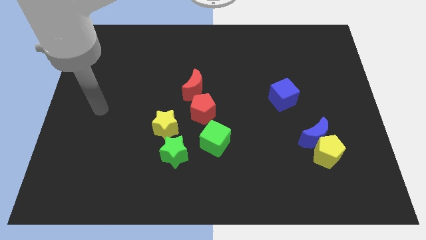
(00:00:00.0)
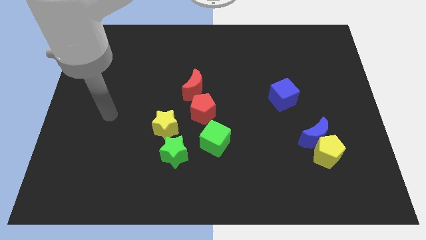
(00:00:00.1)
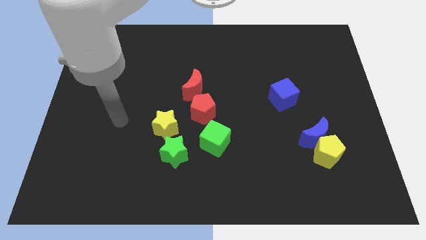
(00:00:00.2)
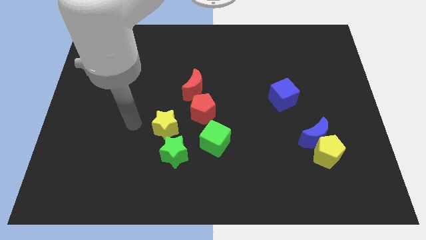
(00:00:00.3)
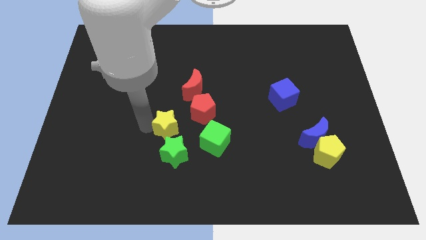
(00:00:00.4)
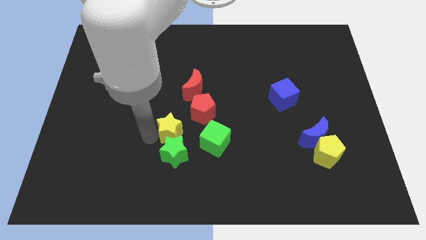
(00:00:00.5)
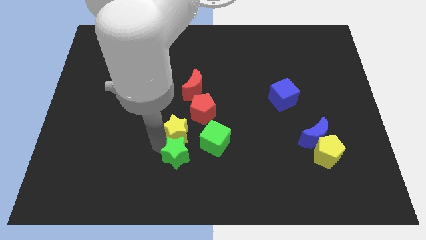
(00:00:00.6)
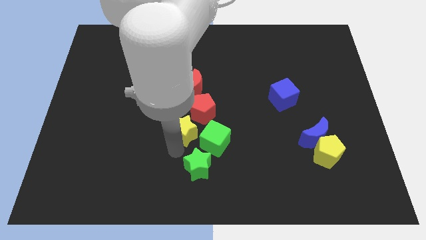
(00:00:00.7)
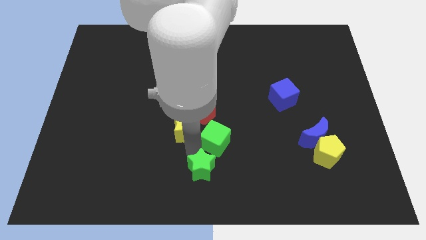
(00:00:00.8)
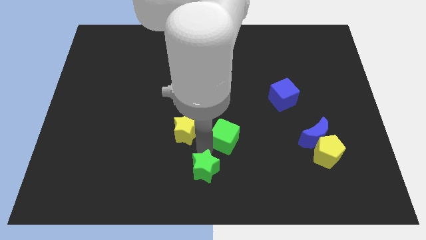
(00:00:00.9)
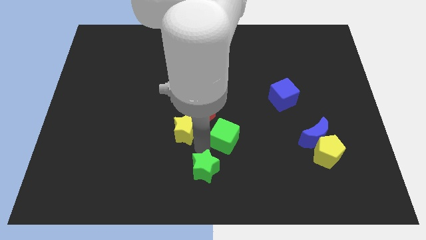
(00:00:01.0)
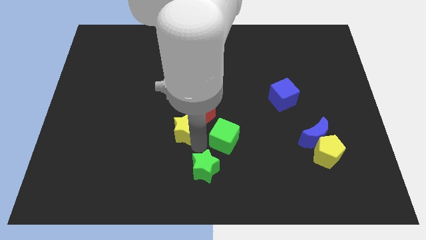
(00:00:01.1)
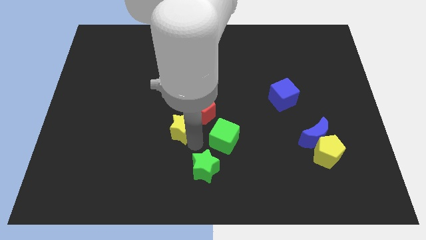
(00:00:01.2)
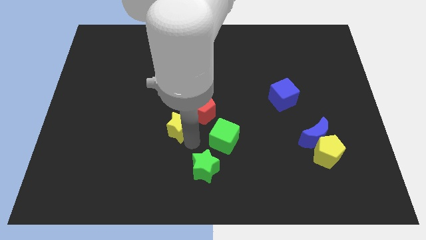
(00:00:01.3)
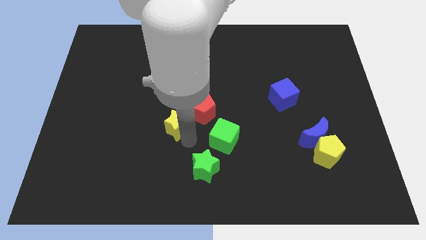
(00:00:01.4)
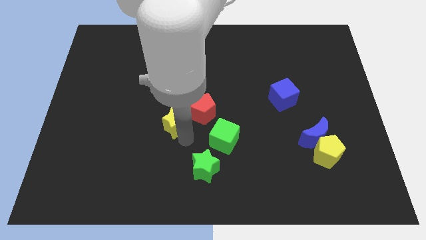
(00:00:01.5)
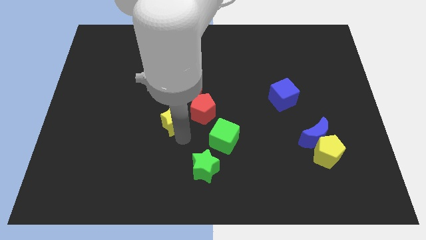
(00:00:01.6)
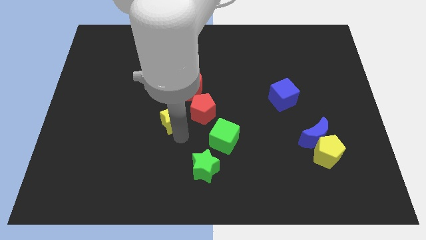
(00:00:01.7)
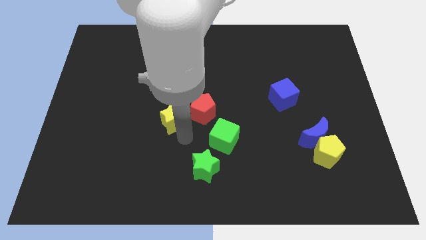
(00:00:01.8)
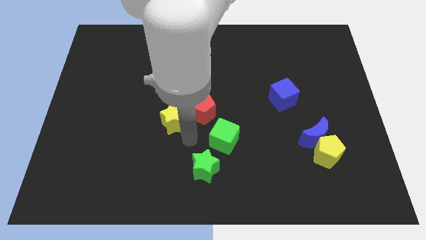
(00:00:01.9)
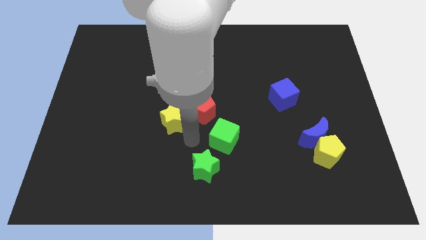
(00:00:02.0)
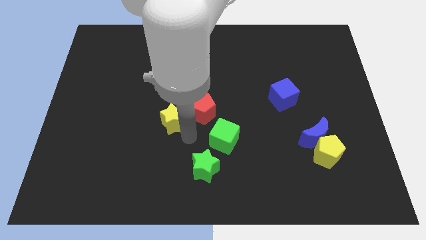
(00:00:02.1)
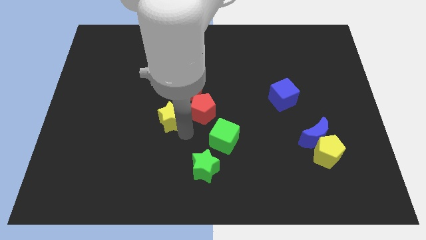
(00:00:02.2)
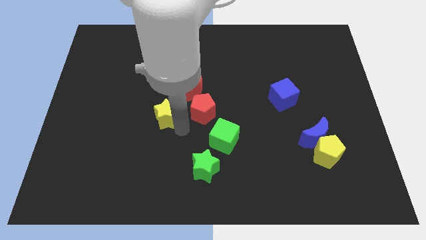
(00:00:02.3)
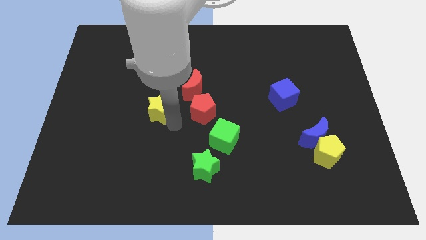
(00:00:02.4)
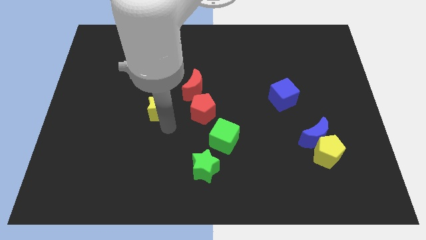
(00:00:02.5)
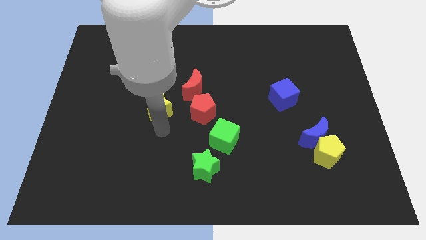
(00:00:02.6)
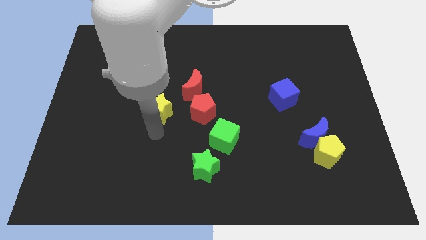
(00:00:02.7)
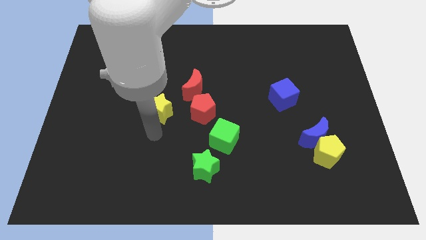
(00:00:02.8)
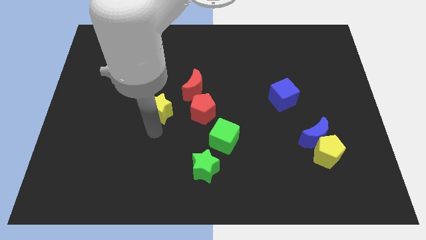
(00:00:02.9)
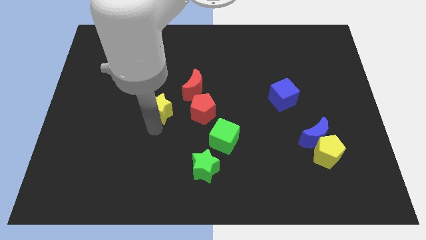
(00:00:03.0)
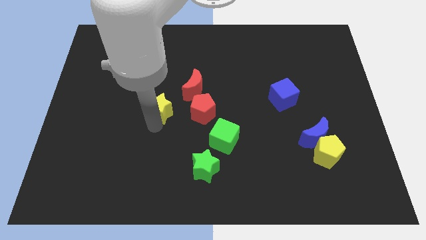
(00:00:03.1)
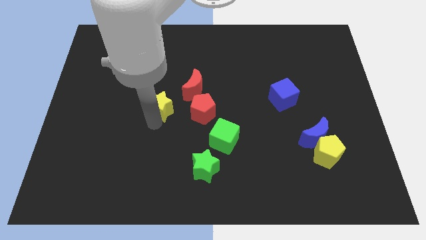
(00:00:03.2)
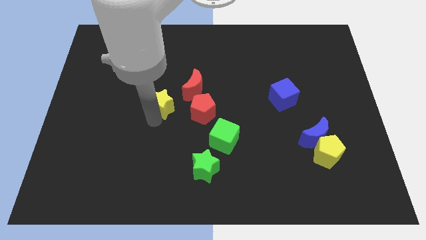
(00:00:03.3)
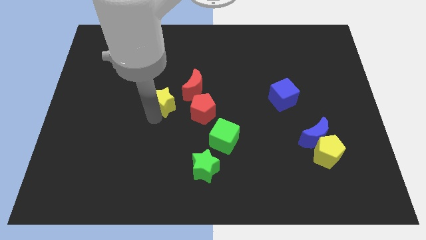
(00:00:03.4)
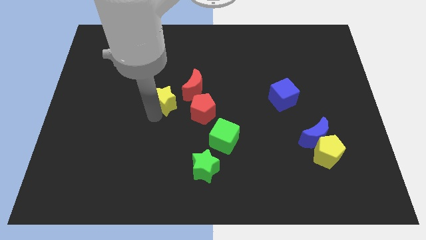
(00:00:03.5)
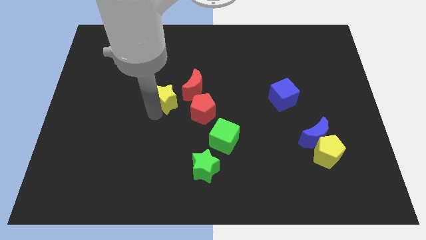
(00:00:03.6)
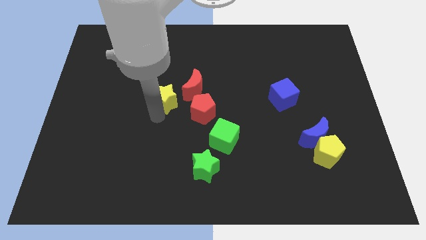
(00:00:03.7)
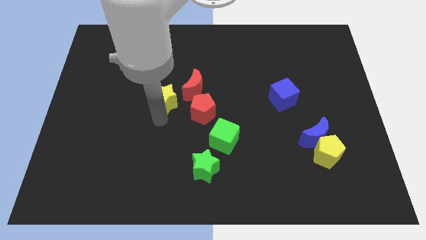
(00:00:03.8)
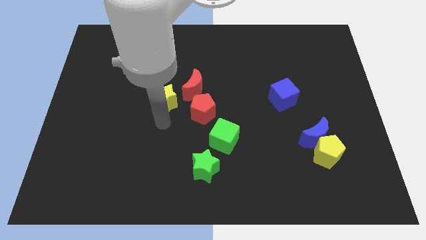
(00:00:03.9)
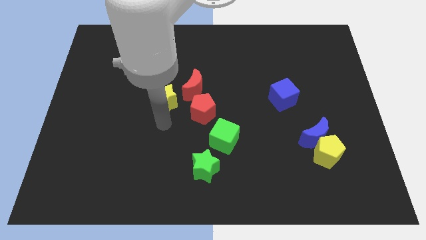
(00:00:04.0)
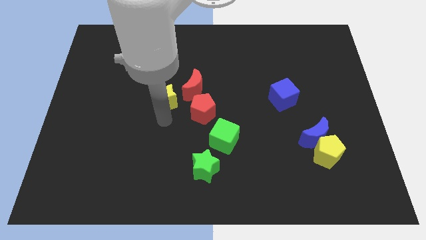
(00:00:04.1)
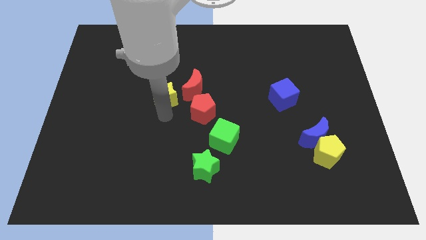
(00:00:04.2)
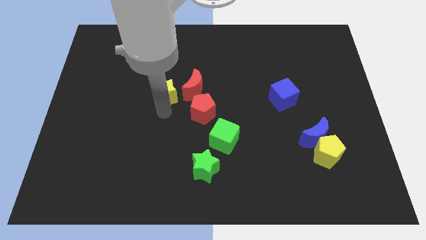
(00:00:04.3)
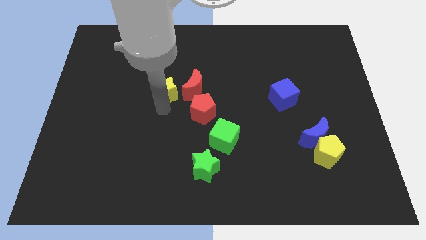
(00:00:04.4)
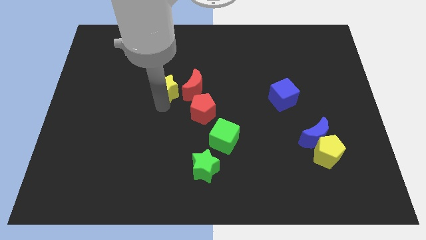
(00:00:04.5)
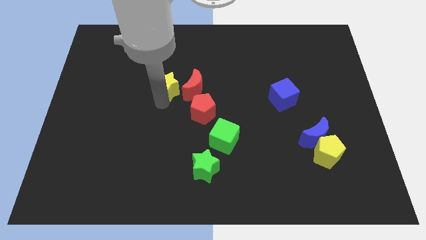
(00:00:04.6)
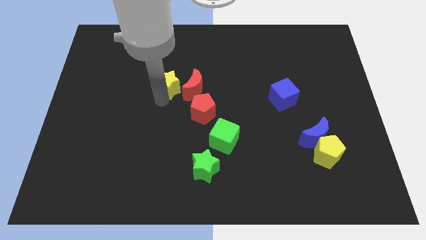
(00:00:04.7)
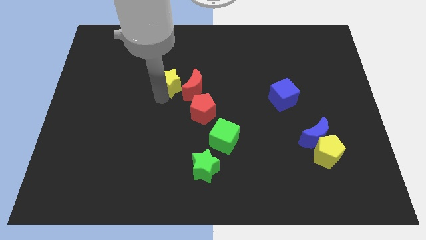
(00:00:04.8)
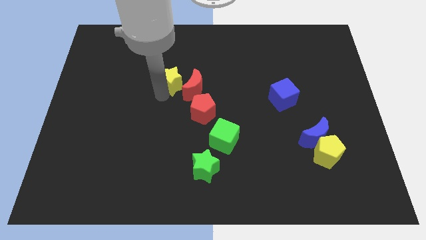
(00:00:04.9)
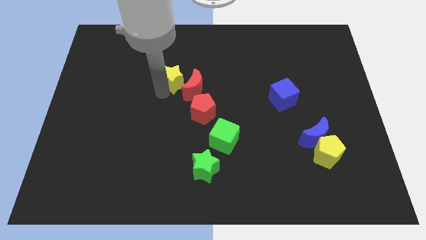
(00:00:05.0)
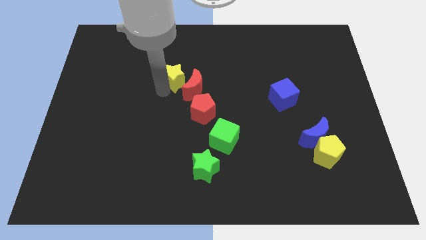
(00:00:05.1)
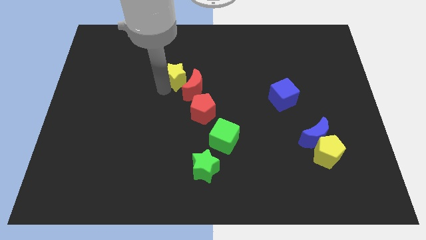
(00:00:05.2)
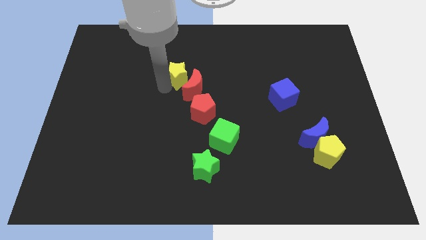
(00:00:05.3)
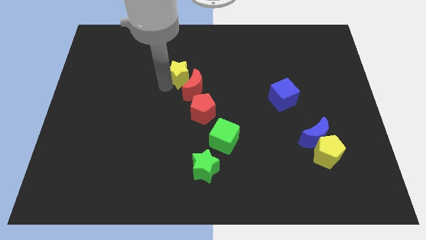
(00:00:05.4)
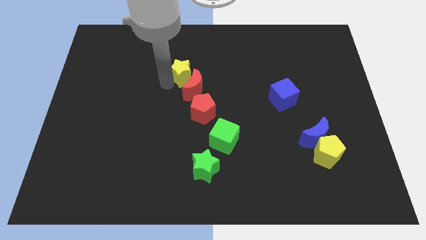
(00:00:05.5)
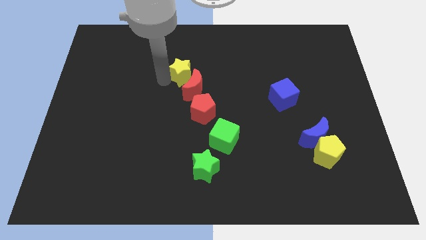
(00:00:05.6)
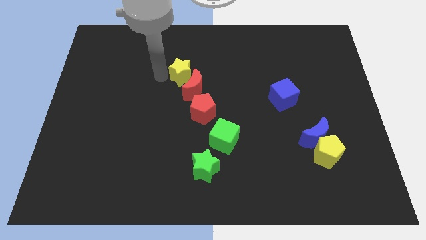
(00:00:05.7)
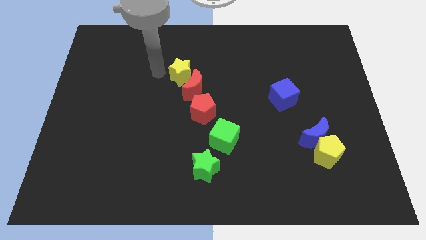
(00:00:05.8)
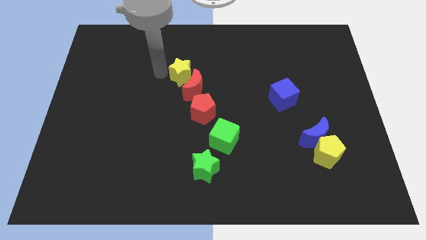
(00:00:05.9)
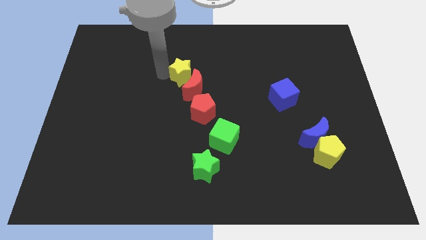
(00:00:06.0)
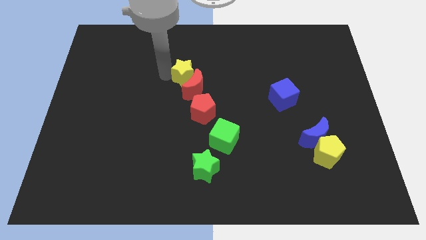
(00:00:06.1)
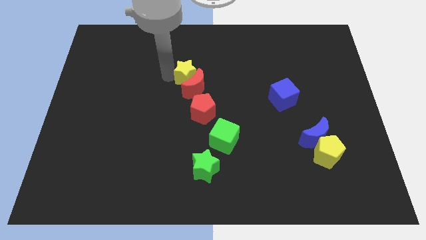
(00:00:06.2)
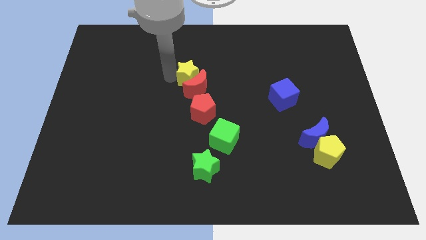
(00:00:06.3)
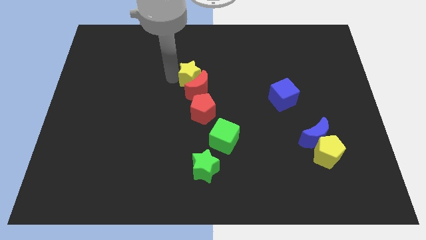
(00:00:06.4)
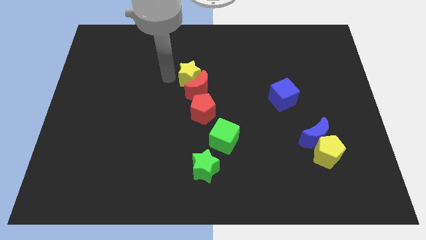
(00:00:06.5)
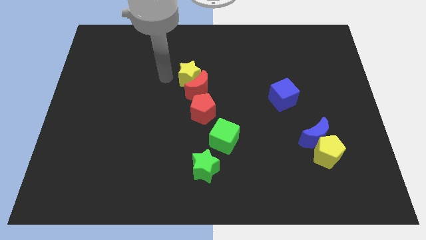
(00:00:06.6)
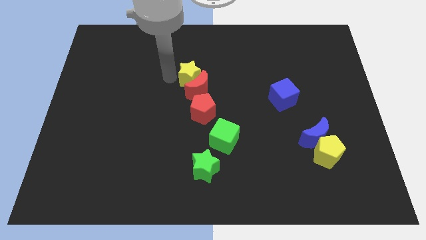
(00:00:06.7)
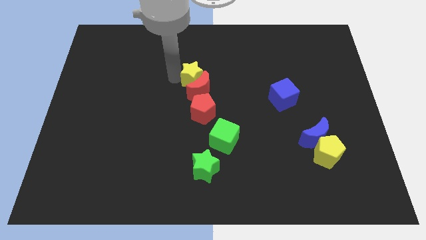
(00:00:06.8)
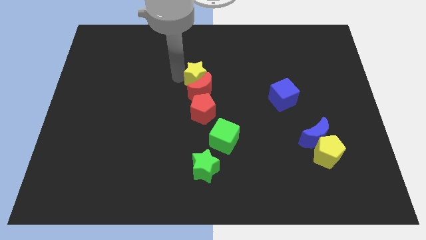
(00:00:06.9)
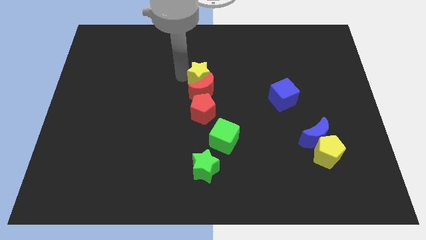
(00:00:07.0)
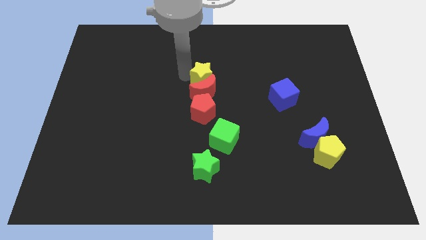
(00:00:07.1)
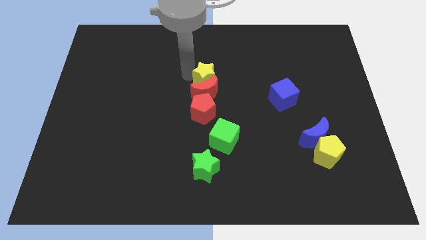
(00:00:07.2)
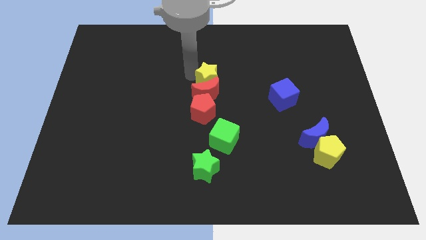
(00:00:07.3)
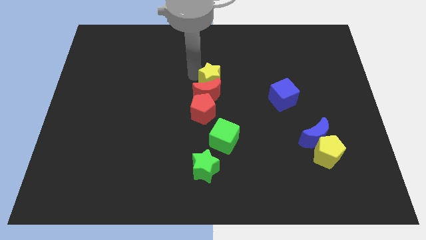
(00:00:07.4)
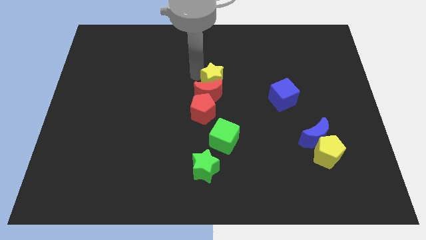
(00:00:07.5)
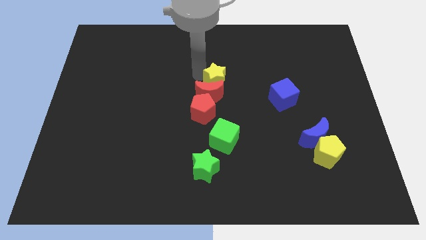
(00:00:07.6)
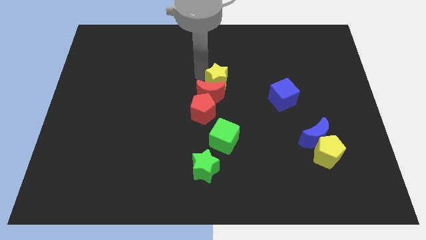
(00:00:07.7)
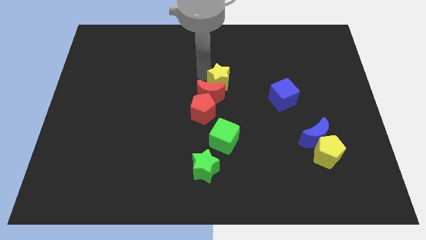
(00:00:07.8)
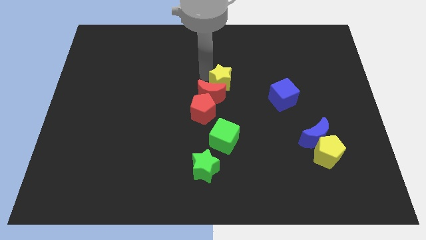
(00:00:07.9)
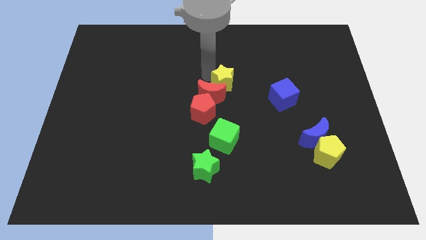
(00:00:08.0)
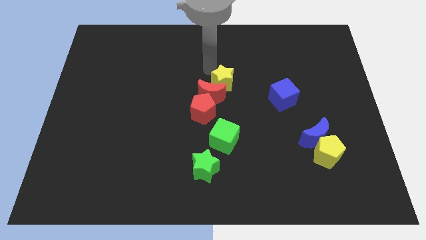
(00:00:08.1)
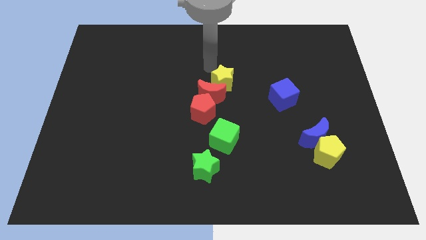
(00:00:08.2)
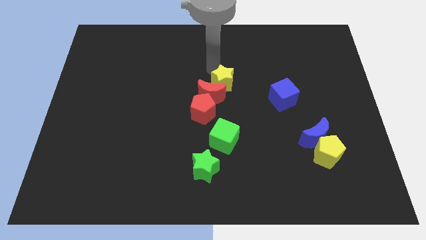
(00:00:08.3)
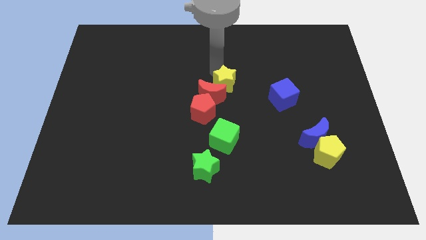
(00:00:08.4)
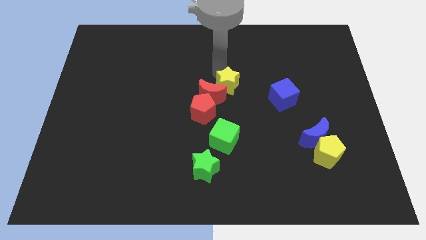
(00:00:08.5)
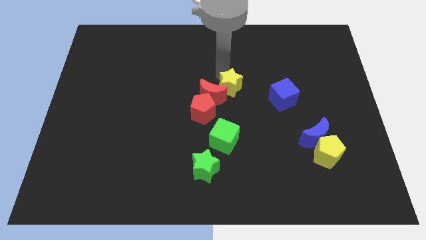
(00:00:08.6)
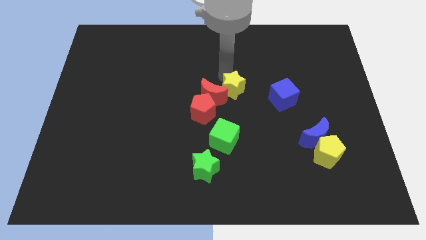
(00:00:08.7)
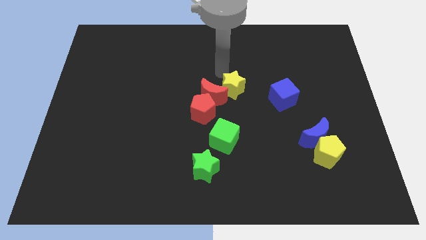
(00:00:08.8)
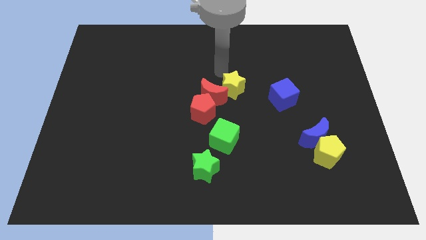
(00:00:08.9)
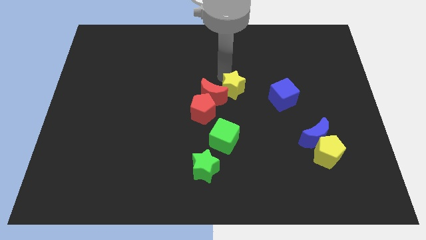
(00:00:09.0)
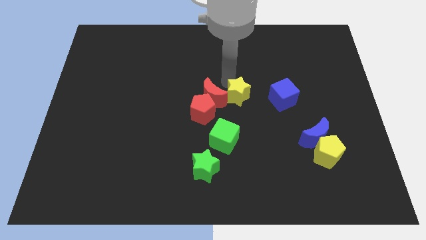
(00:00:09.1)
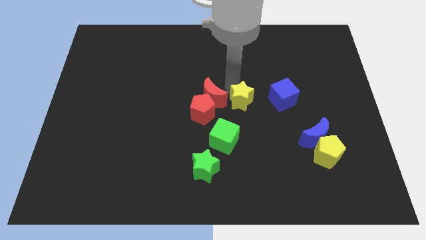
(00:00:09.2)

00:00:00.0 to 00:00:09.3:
push the yellow star just right of the red pentagon
